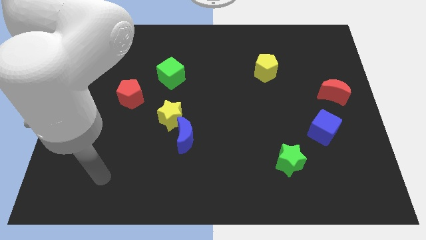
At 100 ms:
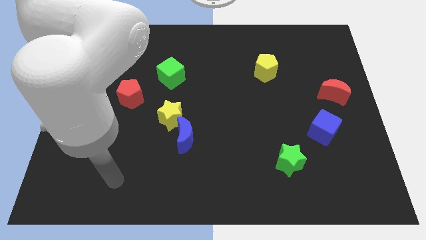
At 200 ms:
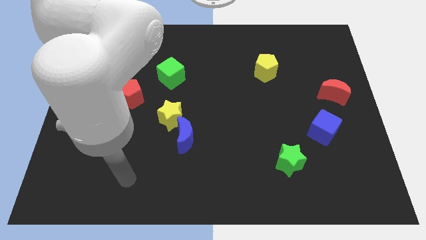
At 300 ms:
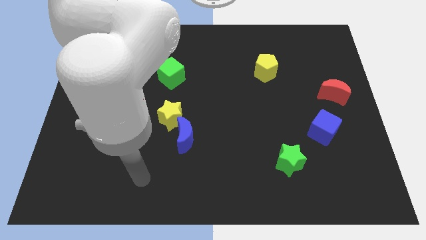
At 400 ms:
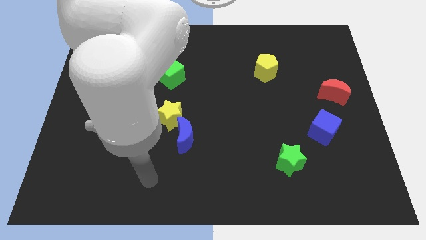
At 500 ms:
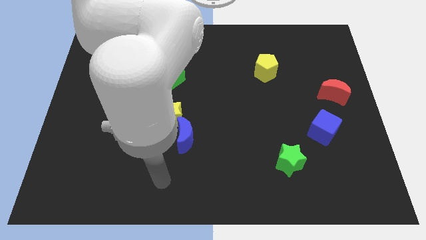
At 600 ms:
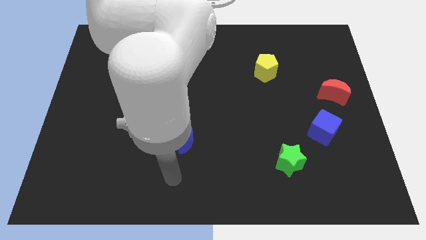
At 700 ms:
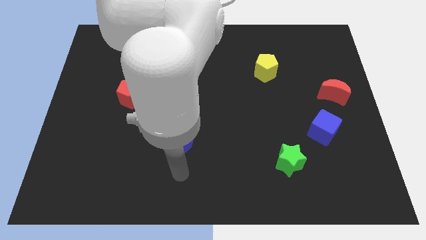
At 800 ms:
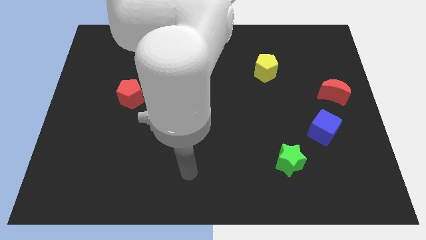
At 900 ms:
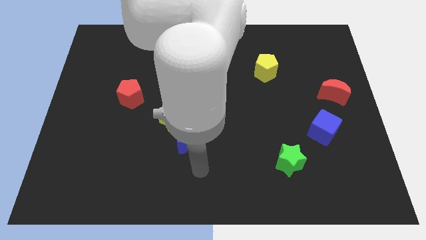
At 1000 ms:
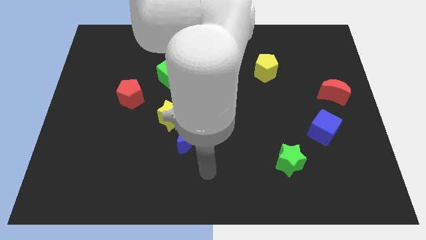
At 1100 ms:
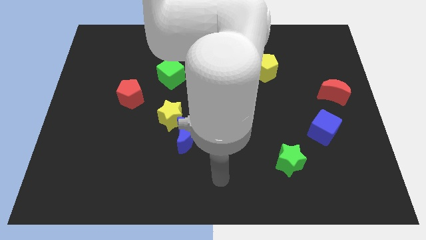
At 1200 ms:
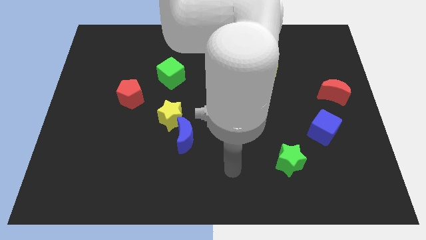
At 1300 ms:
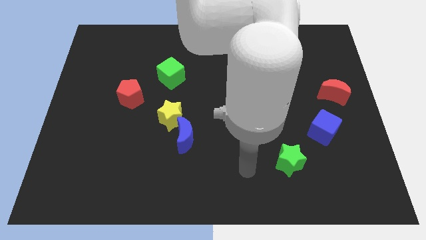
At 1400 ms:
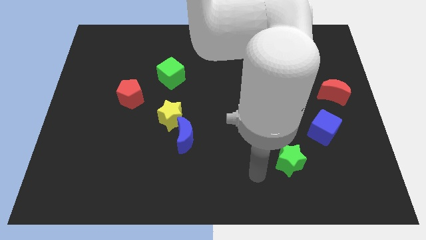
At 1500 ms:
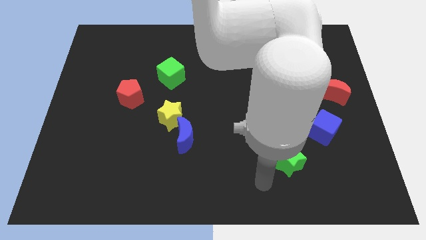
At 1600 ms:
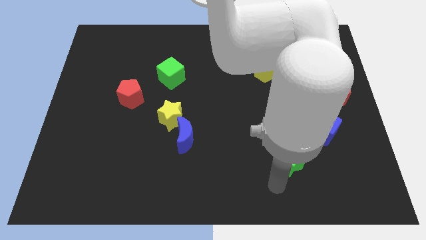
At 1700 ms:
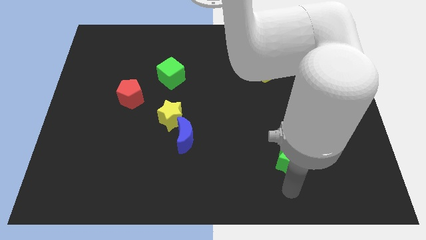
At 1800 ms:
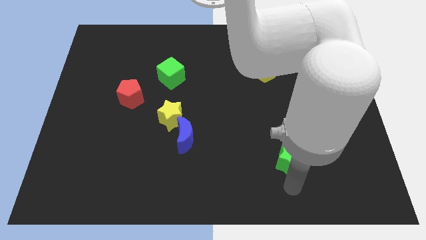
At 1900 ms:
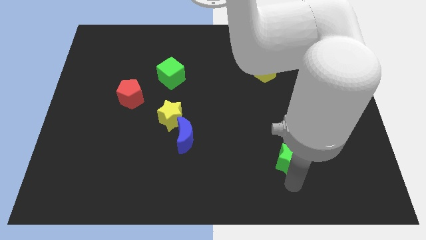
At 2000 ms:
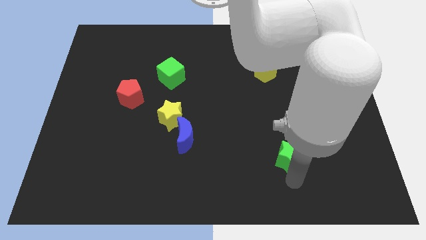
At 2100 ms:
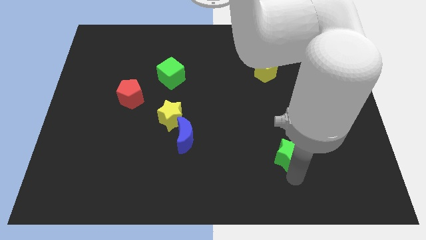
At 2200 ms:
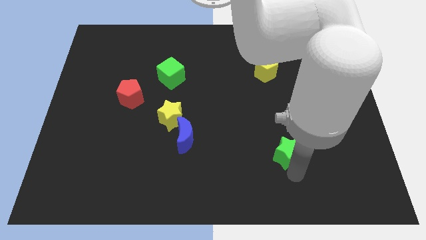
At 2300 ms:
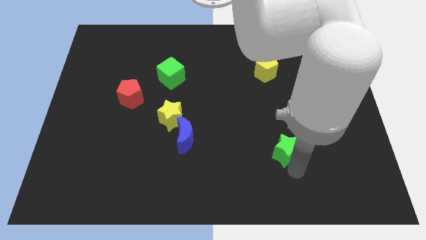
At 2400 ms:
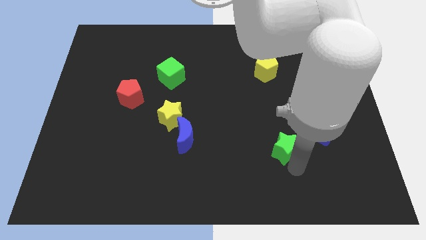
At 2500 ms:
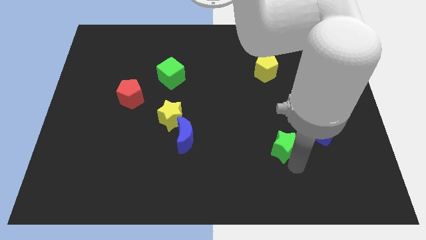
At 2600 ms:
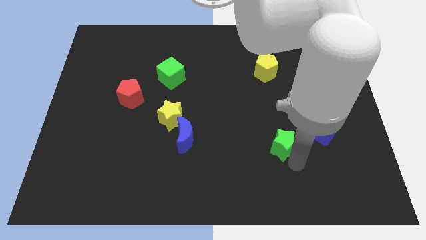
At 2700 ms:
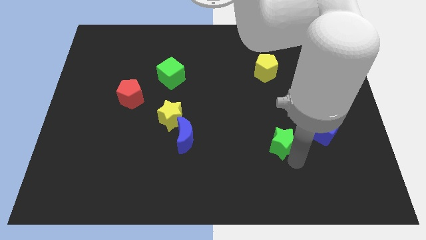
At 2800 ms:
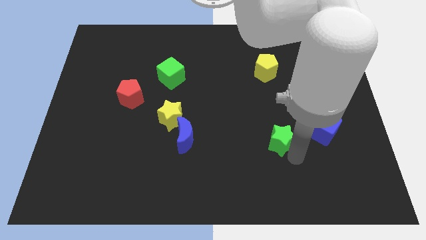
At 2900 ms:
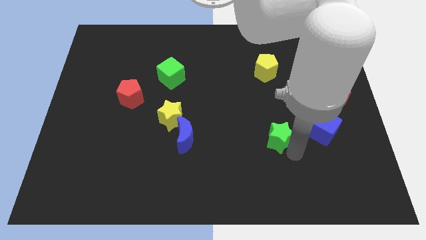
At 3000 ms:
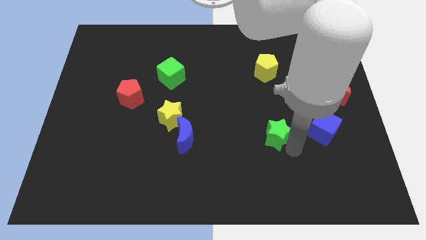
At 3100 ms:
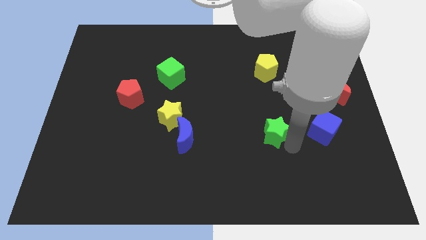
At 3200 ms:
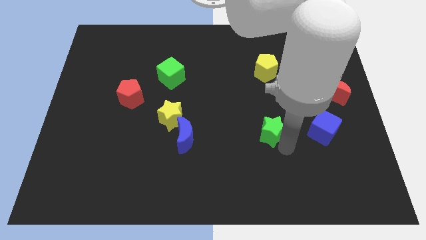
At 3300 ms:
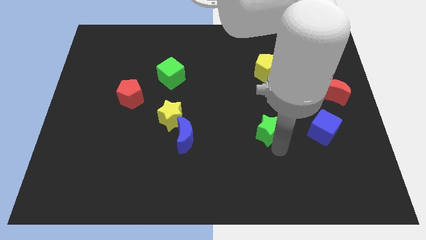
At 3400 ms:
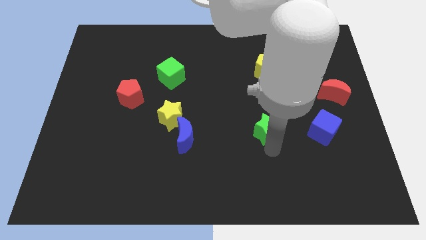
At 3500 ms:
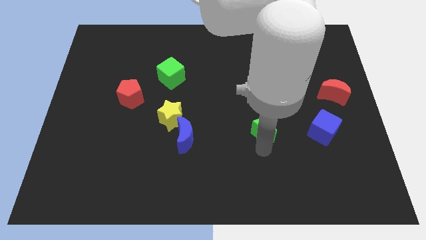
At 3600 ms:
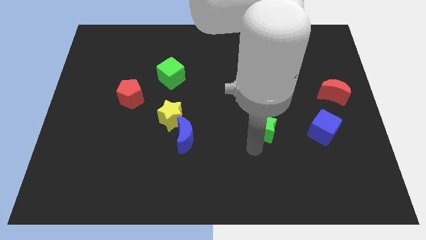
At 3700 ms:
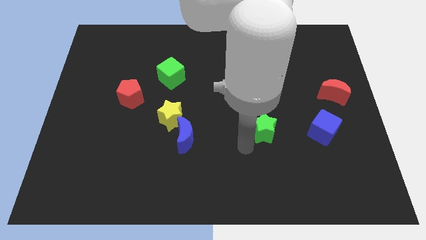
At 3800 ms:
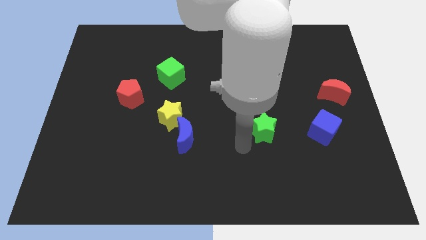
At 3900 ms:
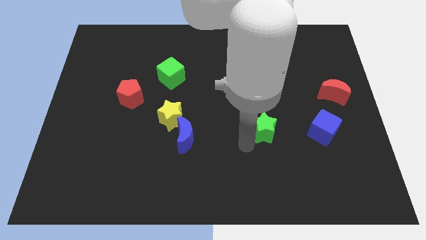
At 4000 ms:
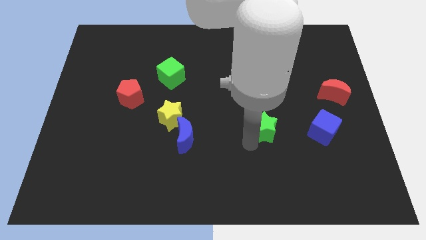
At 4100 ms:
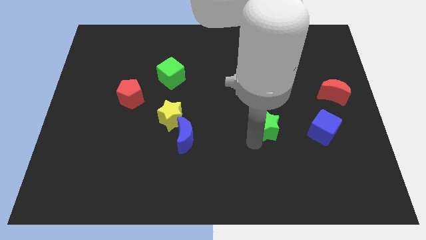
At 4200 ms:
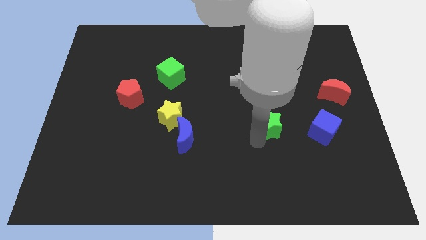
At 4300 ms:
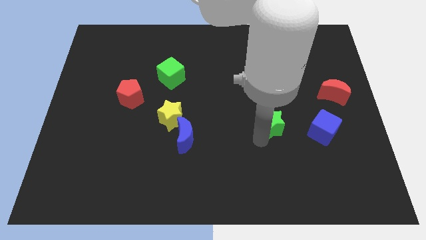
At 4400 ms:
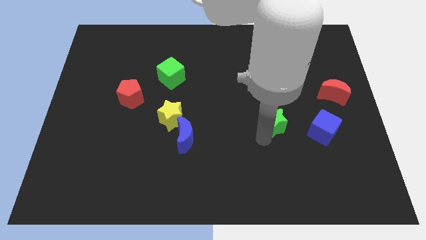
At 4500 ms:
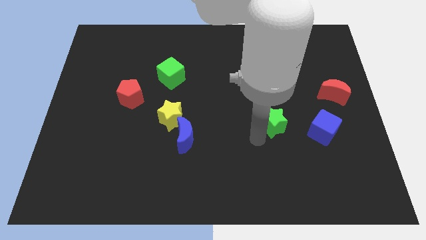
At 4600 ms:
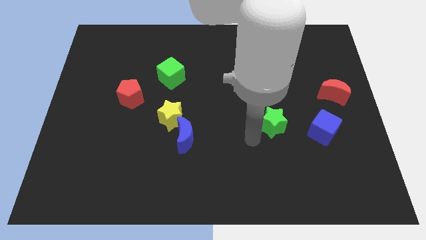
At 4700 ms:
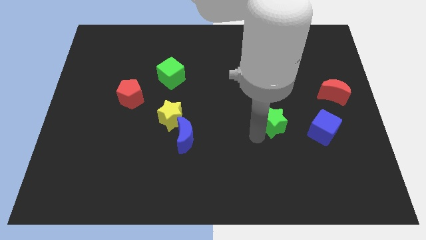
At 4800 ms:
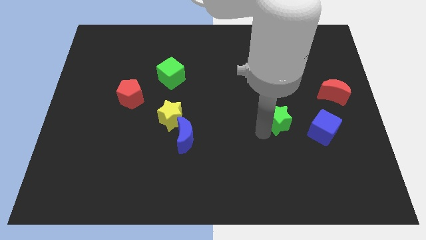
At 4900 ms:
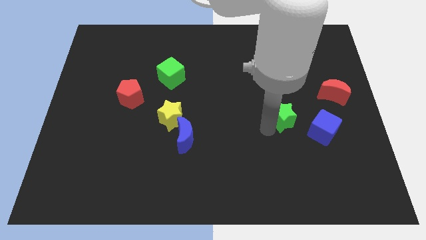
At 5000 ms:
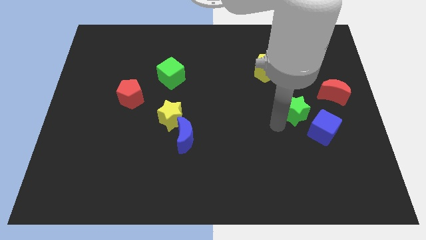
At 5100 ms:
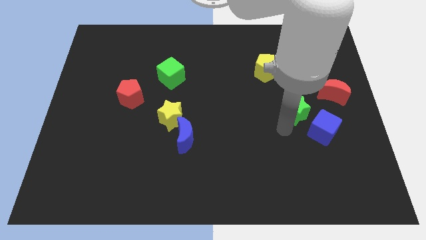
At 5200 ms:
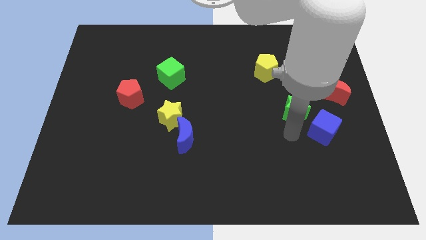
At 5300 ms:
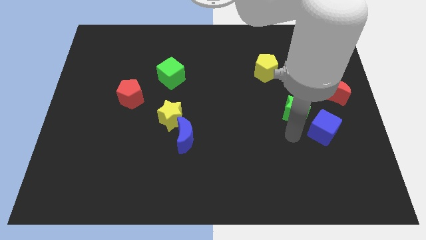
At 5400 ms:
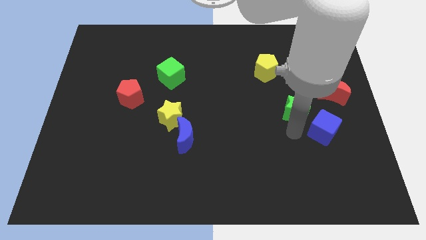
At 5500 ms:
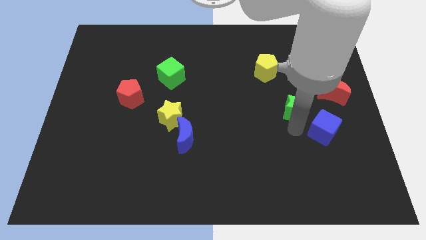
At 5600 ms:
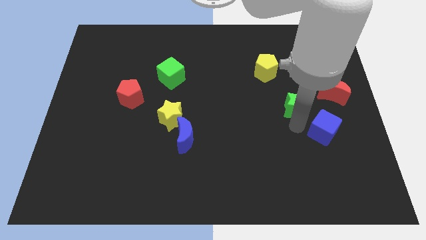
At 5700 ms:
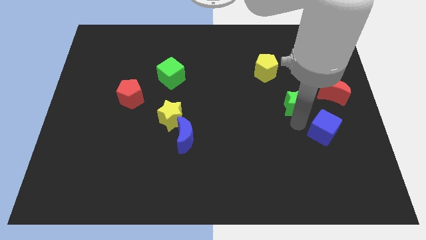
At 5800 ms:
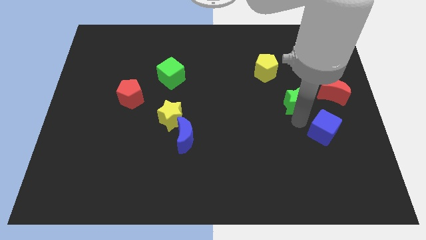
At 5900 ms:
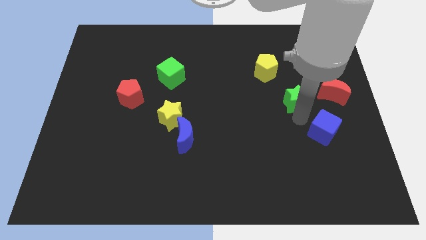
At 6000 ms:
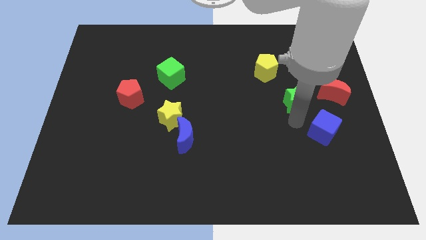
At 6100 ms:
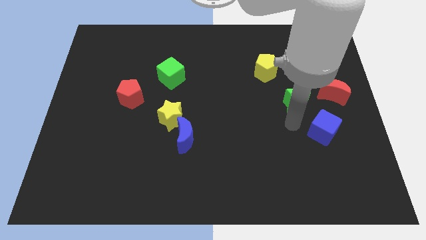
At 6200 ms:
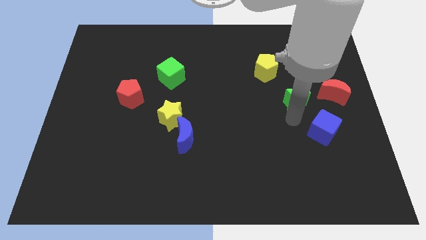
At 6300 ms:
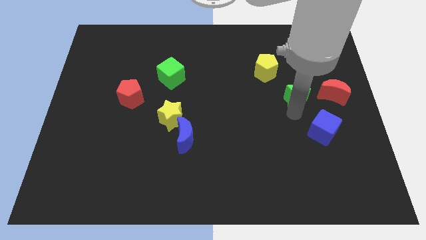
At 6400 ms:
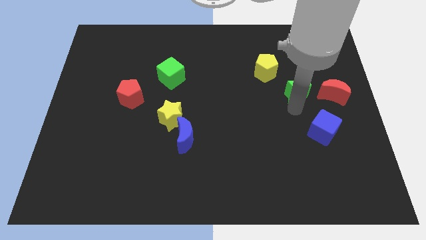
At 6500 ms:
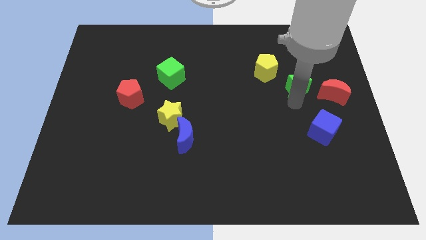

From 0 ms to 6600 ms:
push the green star to the top left side of the red moon

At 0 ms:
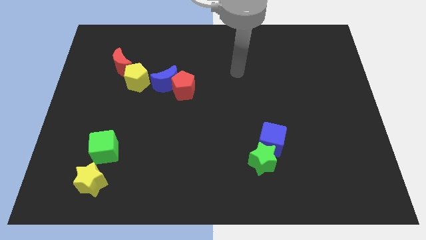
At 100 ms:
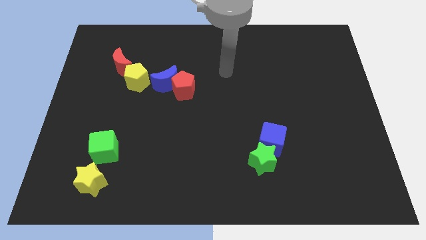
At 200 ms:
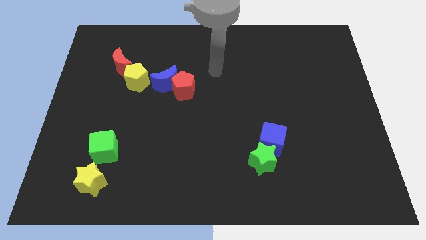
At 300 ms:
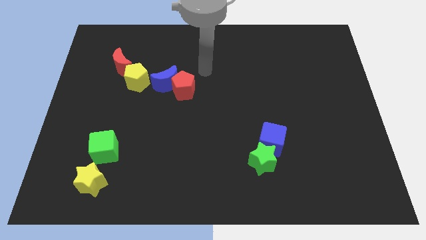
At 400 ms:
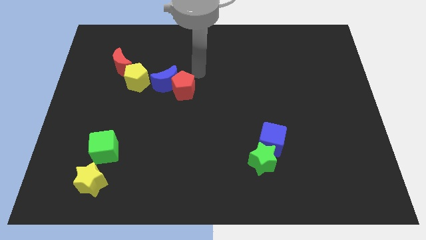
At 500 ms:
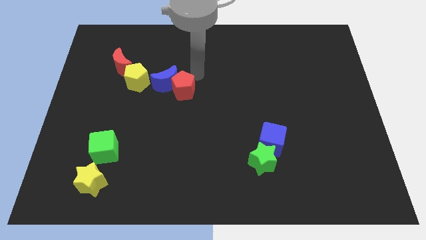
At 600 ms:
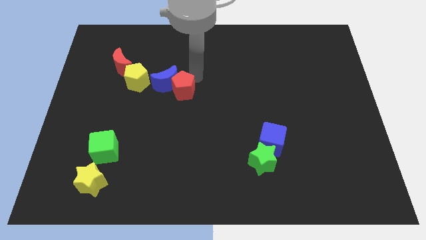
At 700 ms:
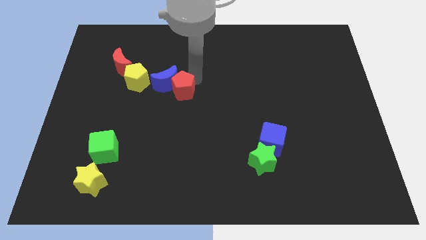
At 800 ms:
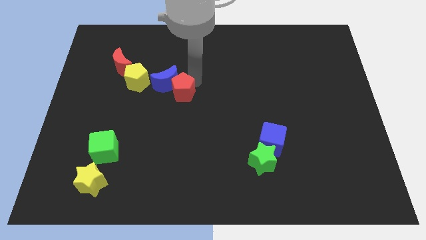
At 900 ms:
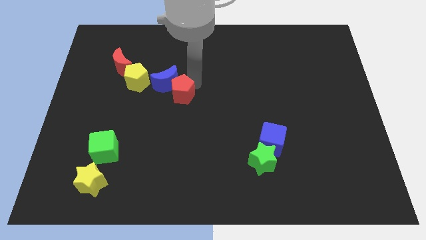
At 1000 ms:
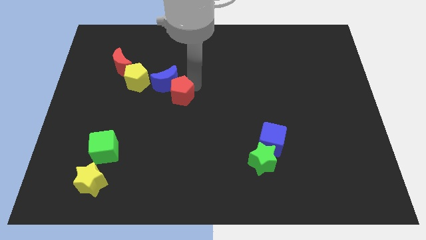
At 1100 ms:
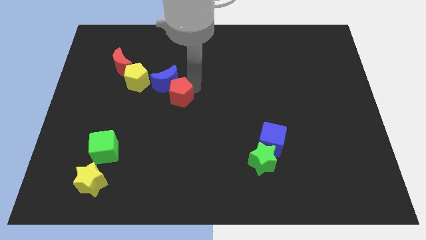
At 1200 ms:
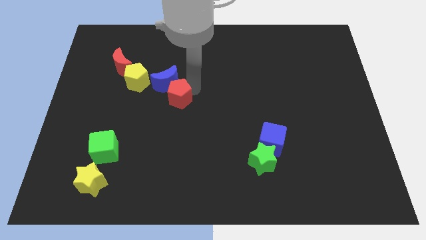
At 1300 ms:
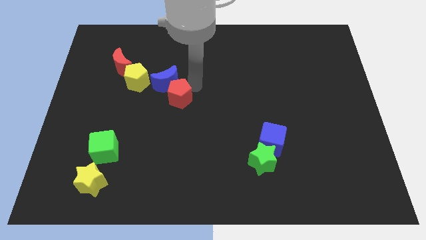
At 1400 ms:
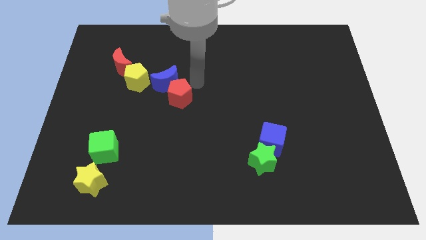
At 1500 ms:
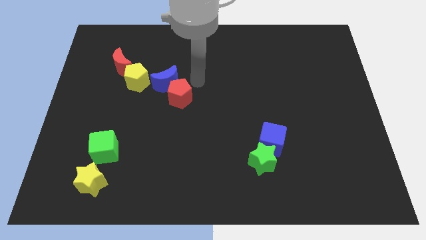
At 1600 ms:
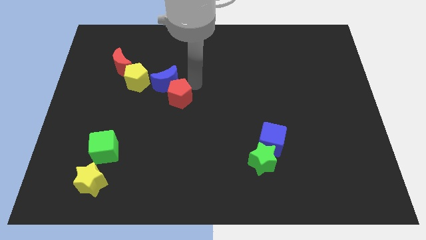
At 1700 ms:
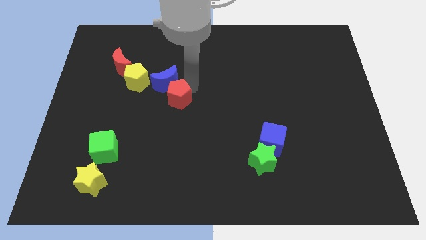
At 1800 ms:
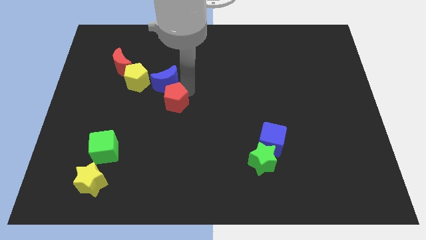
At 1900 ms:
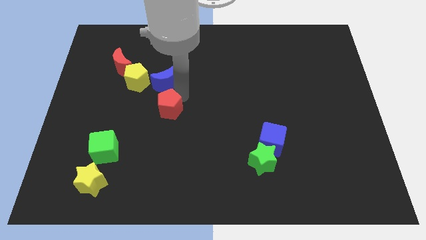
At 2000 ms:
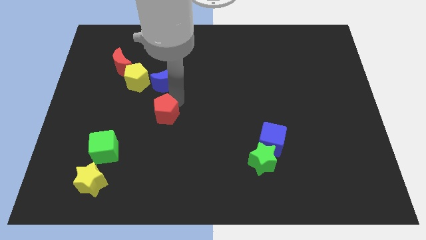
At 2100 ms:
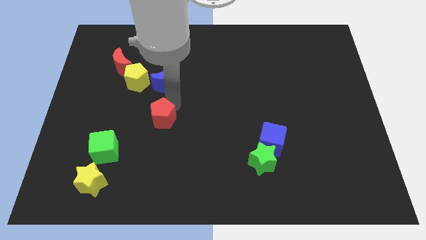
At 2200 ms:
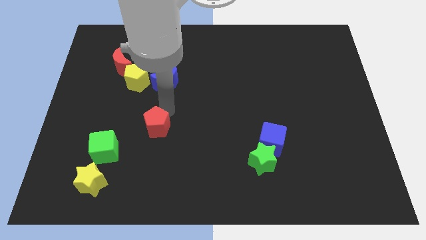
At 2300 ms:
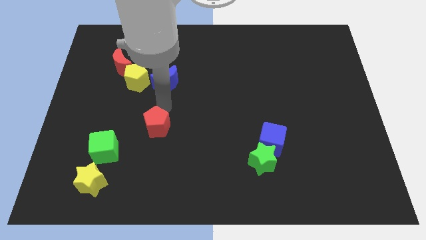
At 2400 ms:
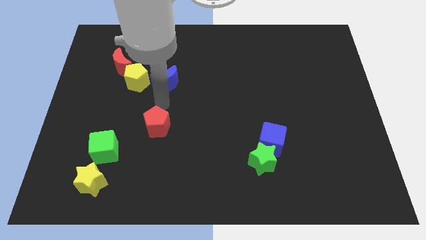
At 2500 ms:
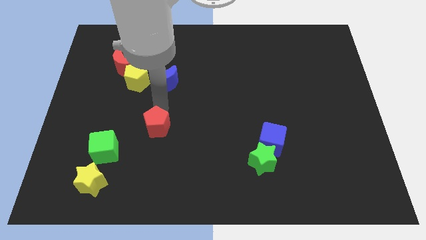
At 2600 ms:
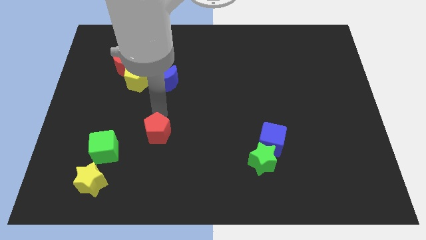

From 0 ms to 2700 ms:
move the red pentagon just right of the green cube
